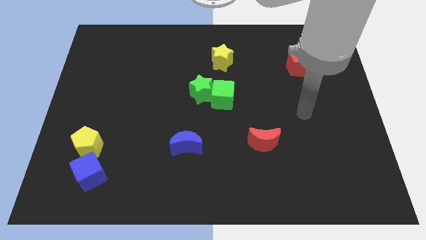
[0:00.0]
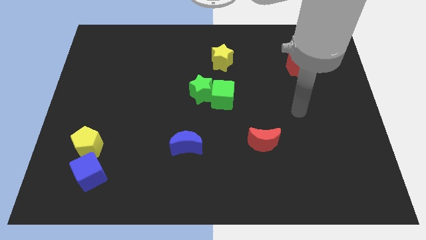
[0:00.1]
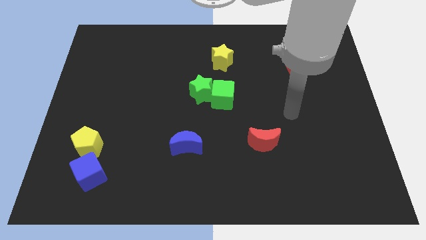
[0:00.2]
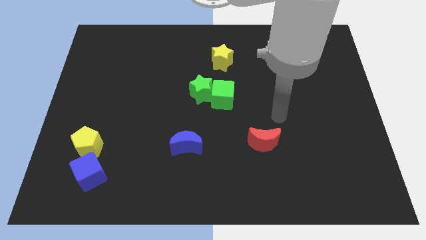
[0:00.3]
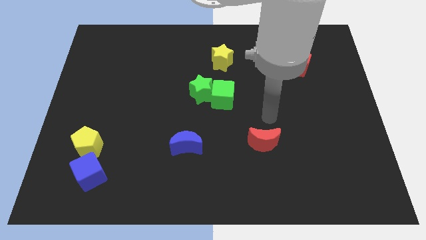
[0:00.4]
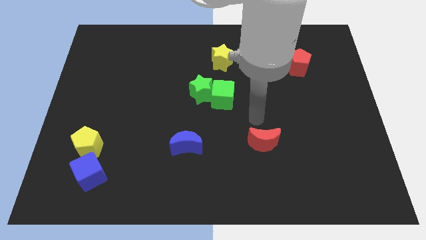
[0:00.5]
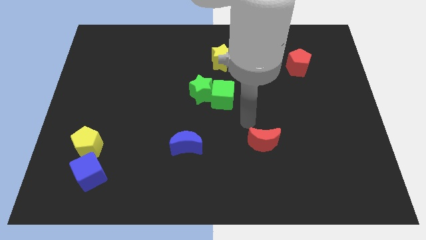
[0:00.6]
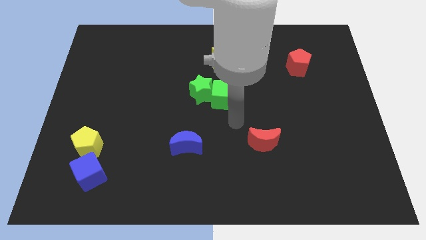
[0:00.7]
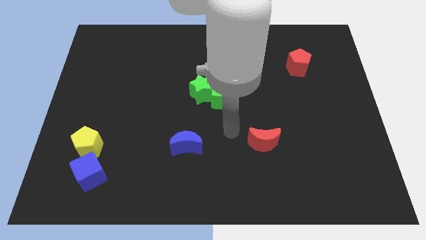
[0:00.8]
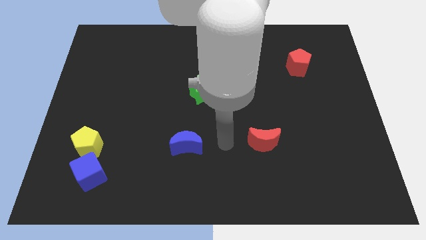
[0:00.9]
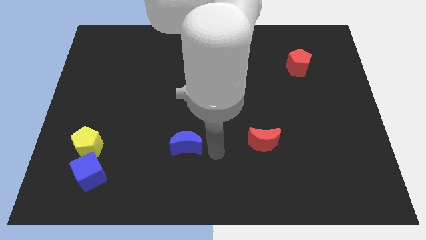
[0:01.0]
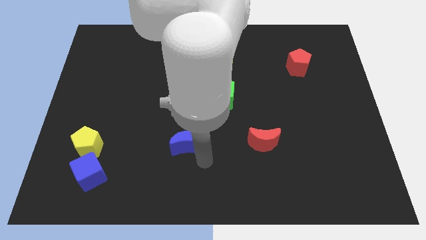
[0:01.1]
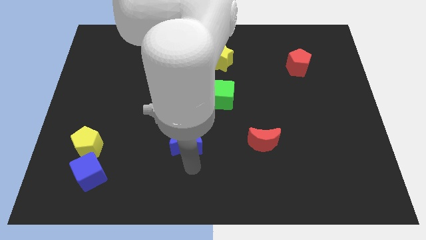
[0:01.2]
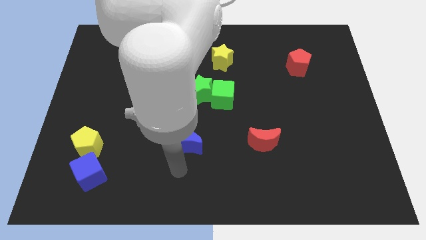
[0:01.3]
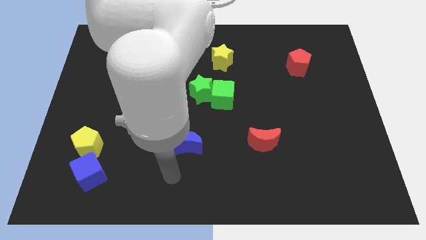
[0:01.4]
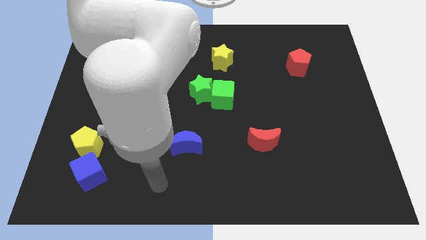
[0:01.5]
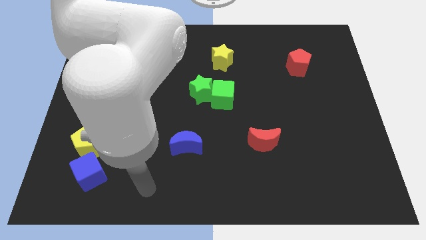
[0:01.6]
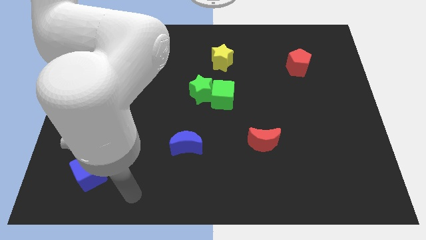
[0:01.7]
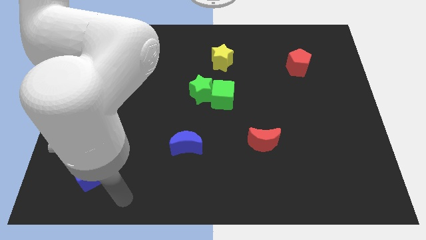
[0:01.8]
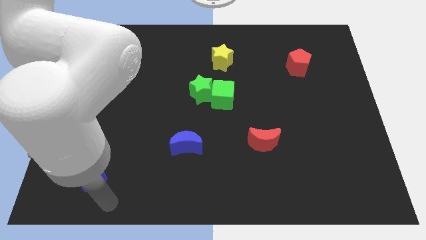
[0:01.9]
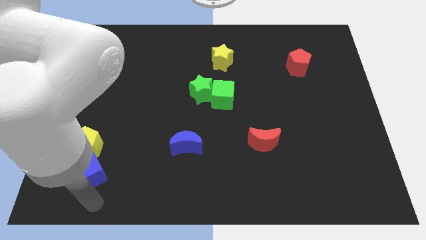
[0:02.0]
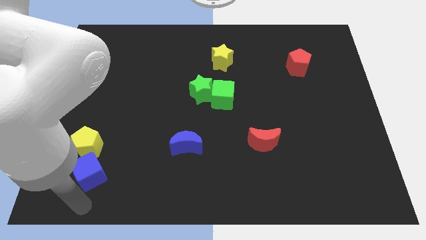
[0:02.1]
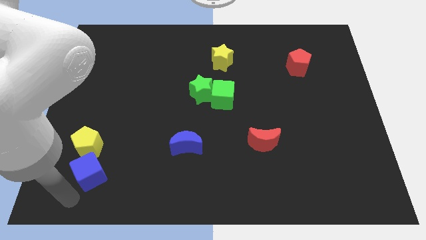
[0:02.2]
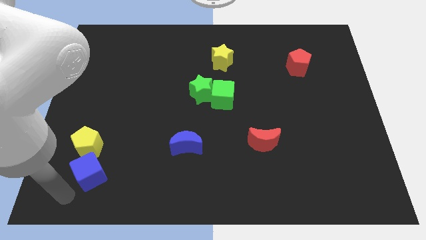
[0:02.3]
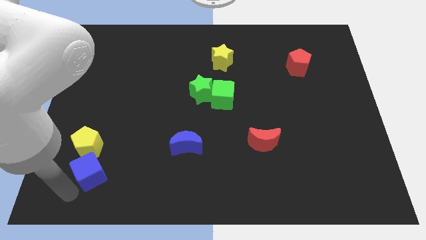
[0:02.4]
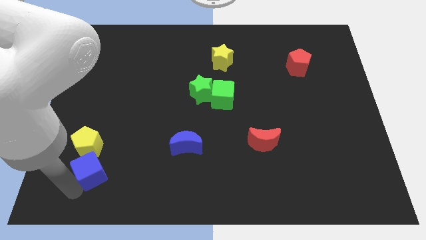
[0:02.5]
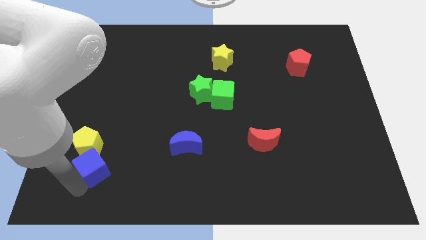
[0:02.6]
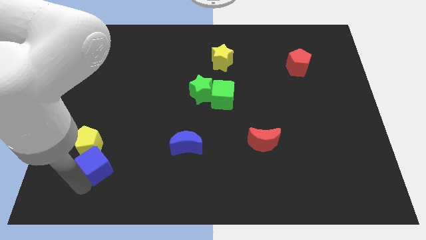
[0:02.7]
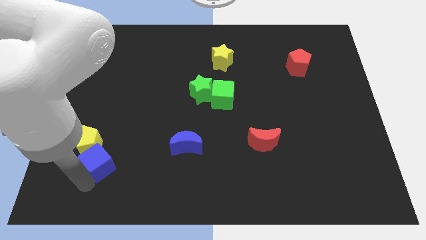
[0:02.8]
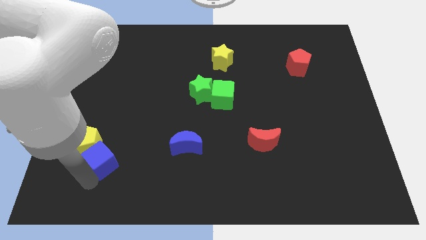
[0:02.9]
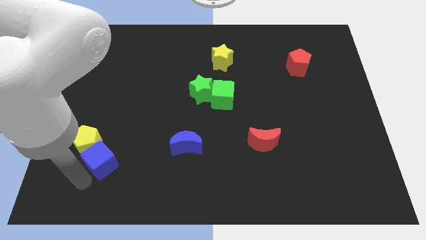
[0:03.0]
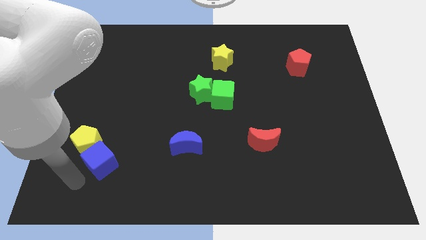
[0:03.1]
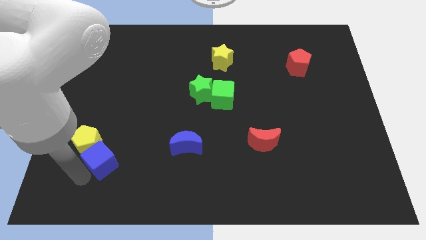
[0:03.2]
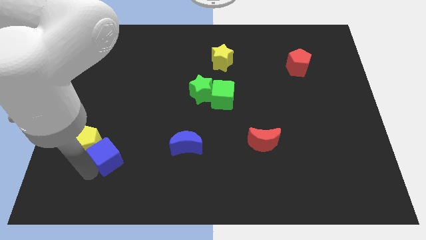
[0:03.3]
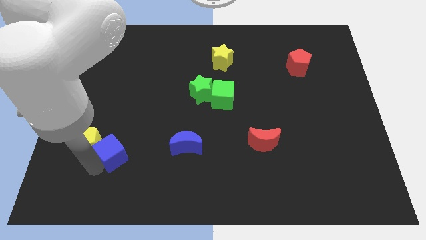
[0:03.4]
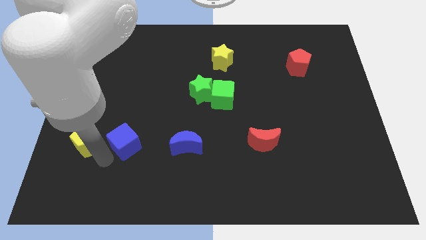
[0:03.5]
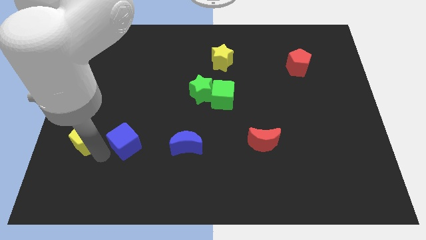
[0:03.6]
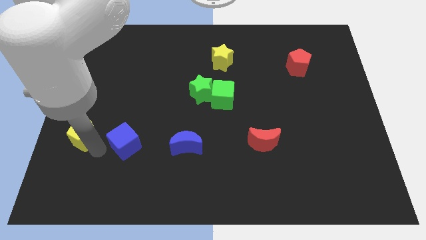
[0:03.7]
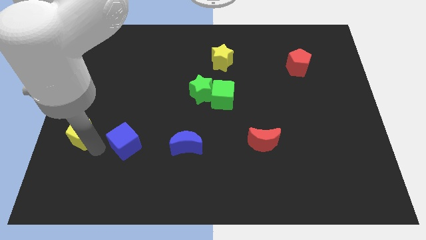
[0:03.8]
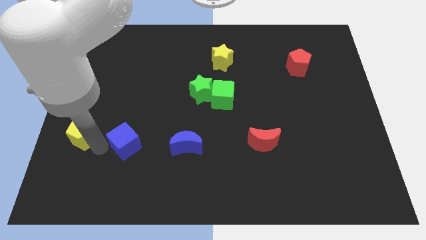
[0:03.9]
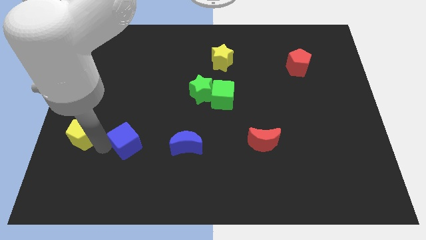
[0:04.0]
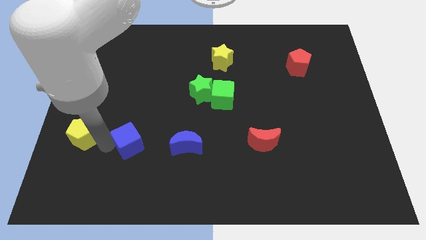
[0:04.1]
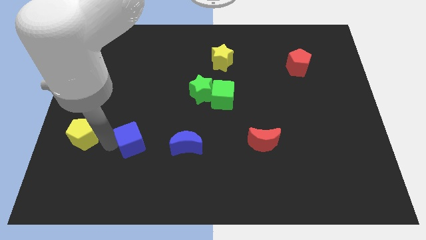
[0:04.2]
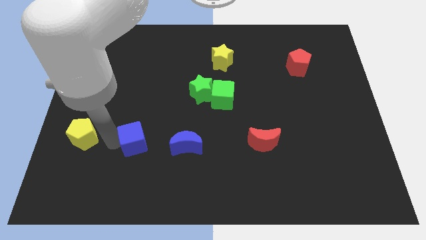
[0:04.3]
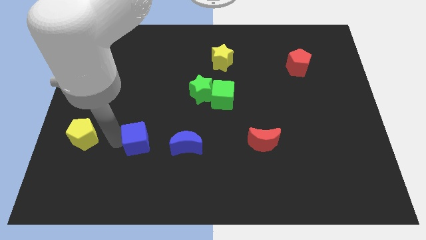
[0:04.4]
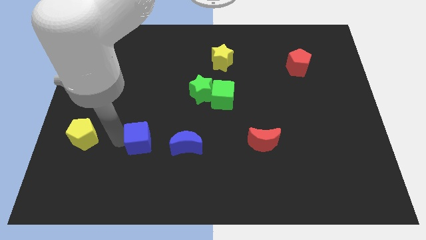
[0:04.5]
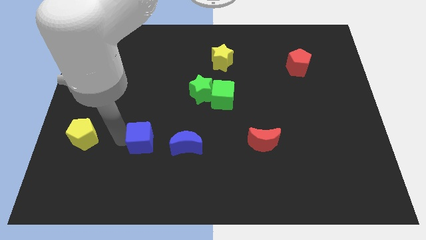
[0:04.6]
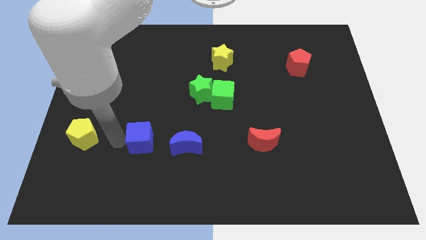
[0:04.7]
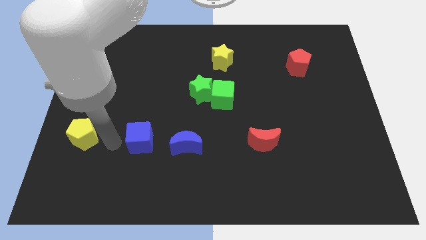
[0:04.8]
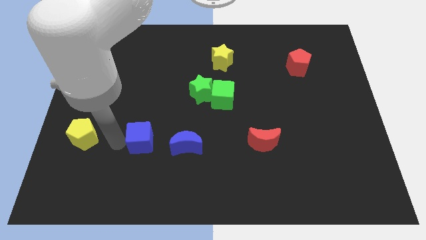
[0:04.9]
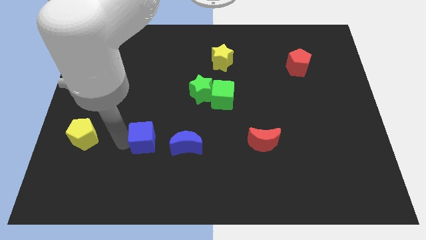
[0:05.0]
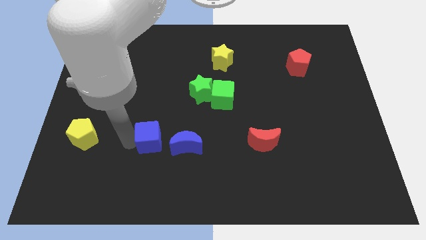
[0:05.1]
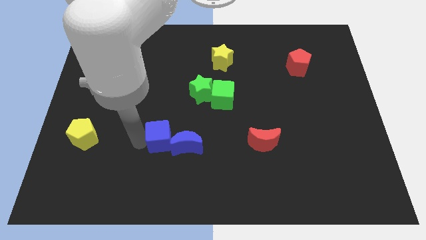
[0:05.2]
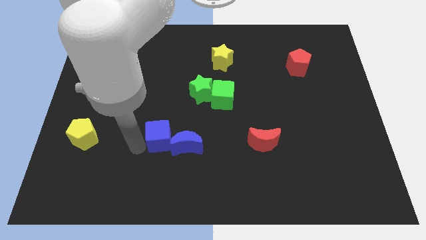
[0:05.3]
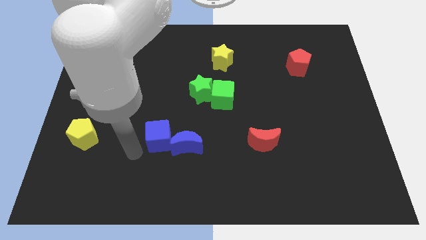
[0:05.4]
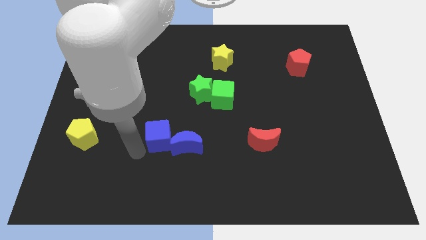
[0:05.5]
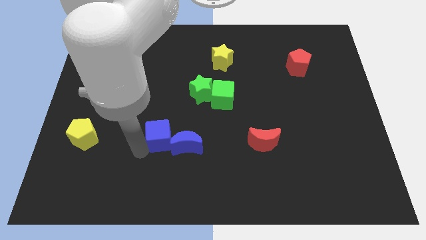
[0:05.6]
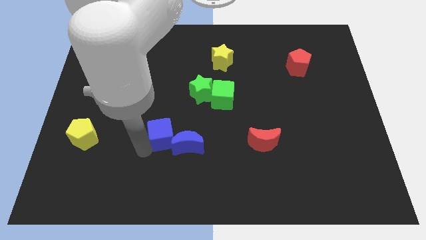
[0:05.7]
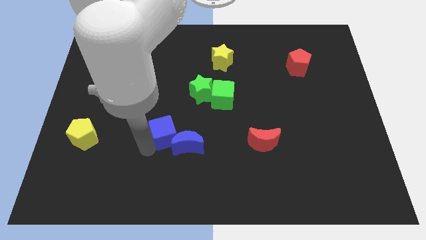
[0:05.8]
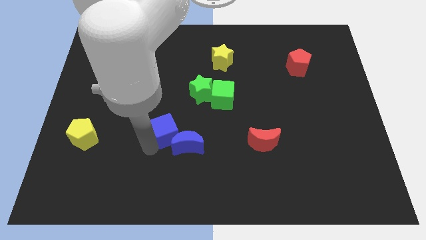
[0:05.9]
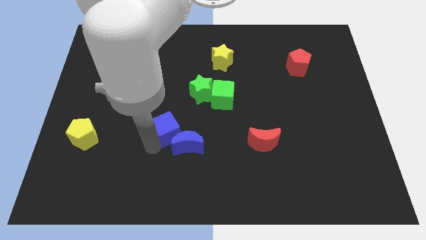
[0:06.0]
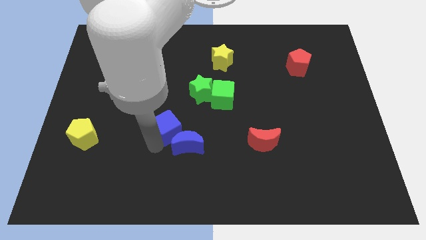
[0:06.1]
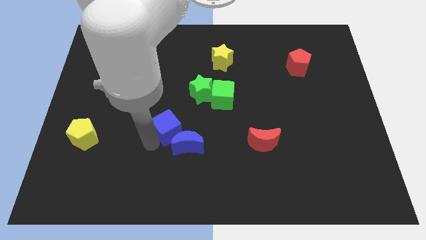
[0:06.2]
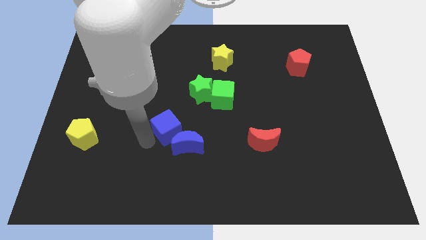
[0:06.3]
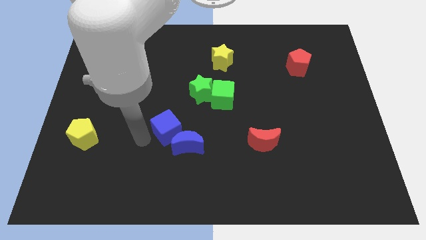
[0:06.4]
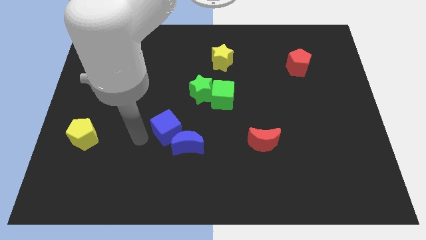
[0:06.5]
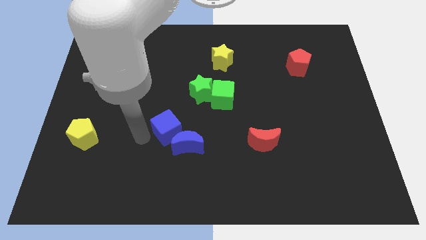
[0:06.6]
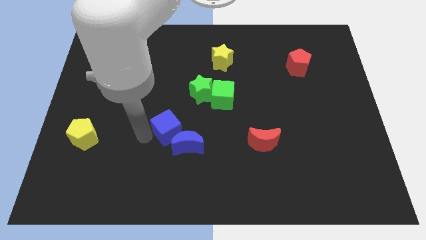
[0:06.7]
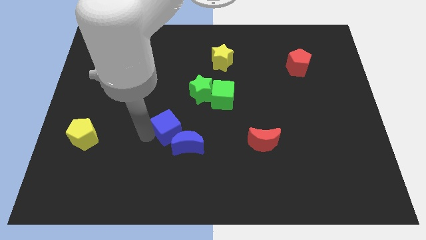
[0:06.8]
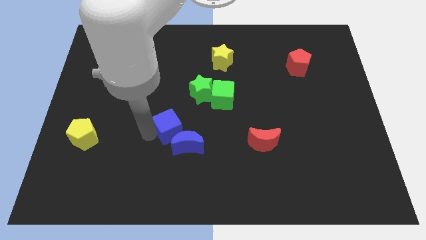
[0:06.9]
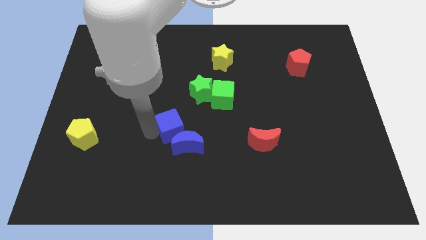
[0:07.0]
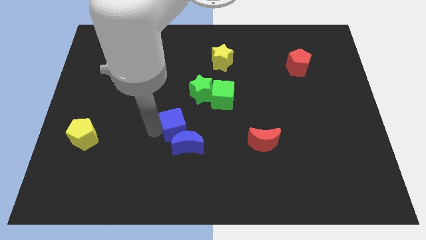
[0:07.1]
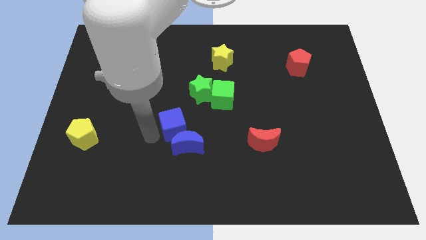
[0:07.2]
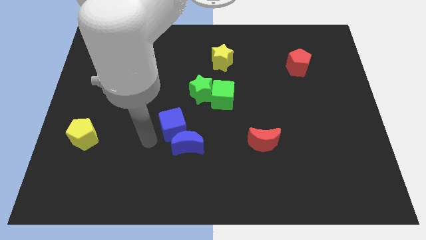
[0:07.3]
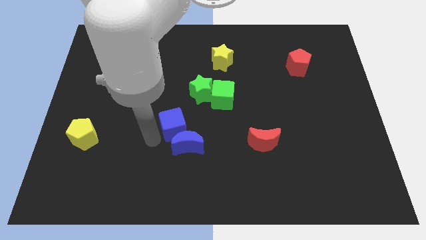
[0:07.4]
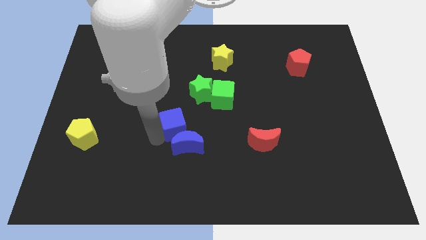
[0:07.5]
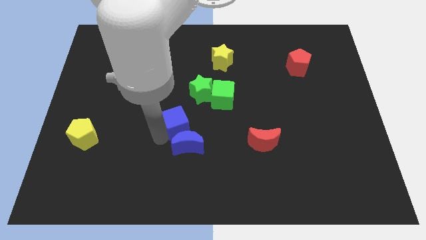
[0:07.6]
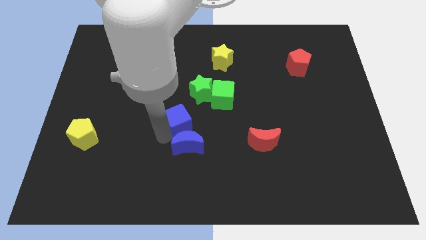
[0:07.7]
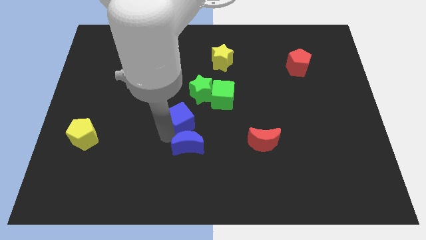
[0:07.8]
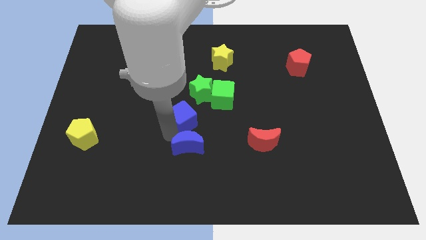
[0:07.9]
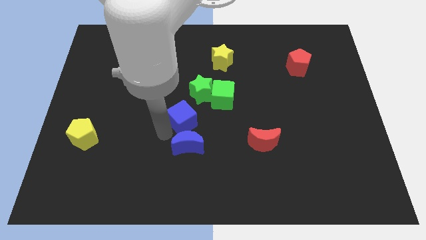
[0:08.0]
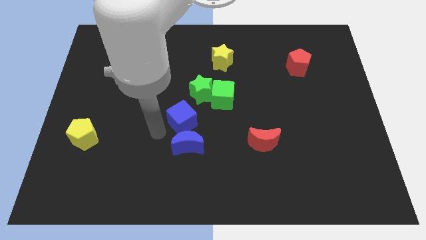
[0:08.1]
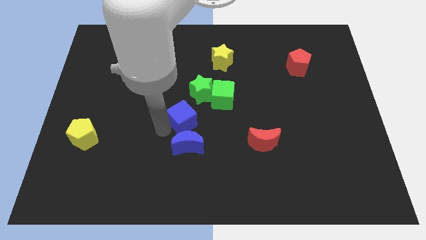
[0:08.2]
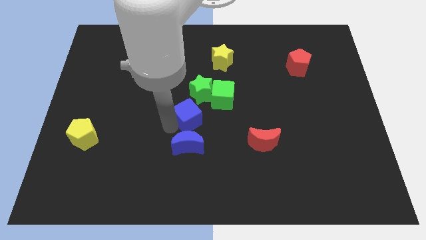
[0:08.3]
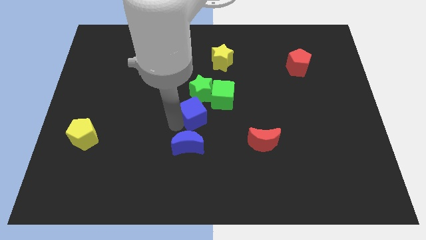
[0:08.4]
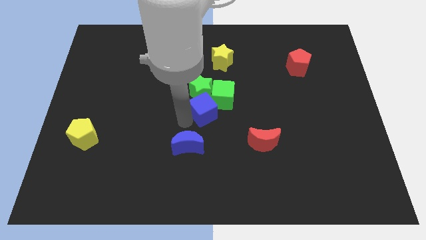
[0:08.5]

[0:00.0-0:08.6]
move the blue cube next to the green cube
